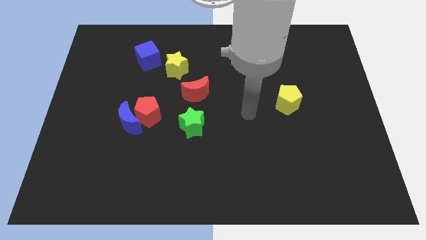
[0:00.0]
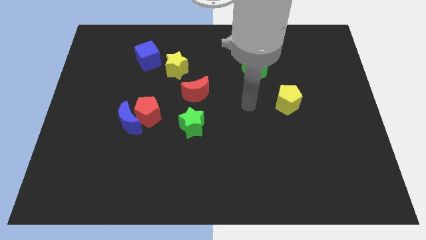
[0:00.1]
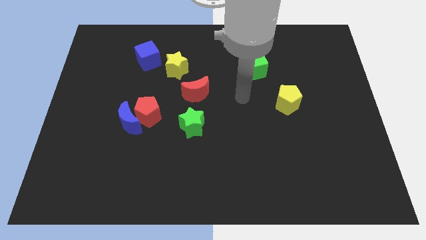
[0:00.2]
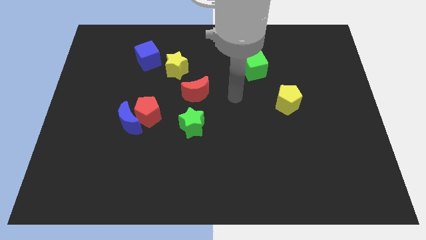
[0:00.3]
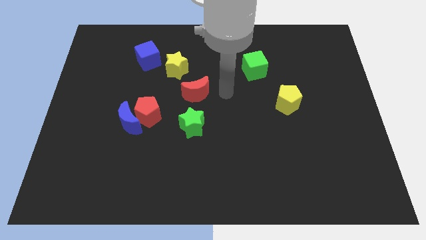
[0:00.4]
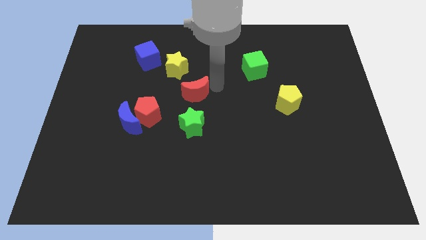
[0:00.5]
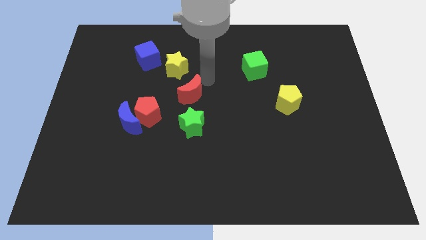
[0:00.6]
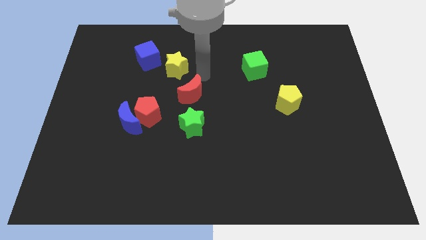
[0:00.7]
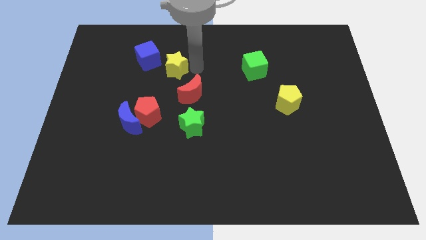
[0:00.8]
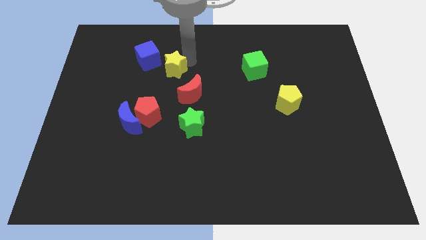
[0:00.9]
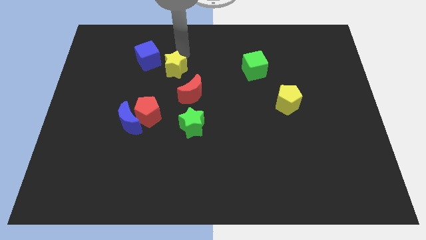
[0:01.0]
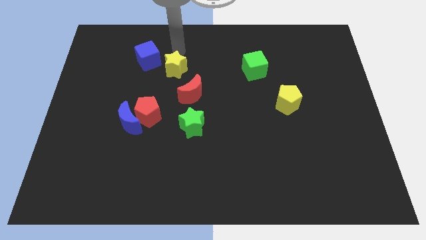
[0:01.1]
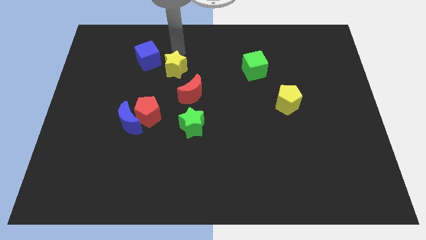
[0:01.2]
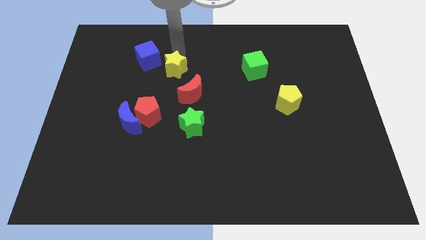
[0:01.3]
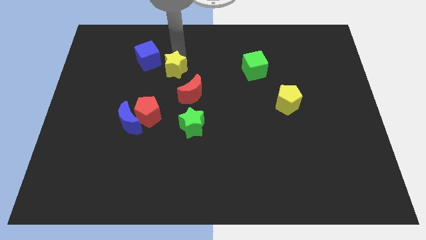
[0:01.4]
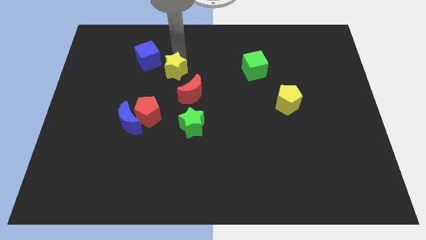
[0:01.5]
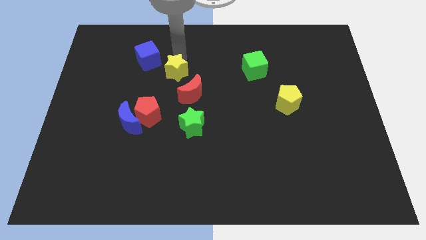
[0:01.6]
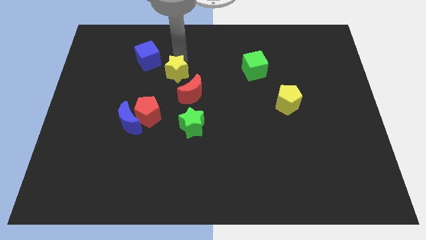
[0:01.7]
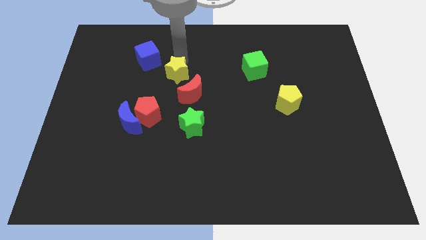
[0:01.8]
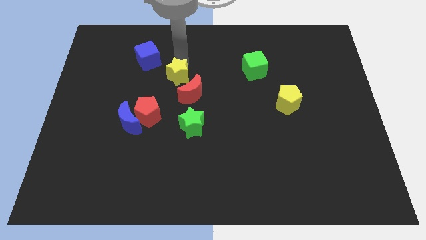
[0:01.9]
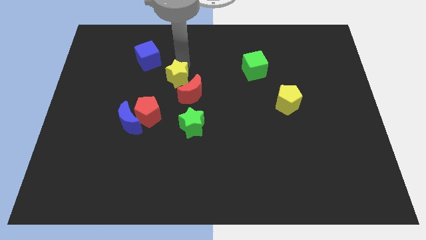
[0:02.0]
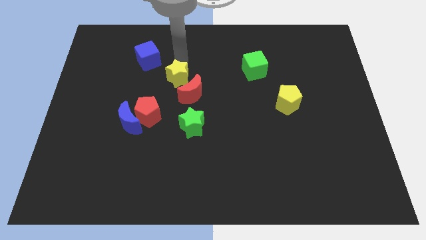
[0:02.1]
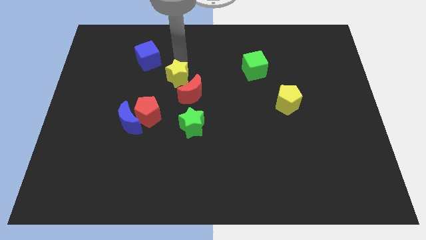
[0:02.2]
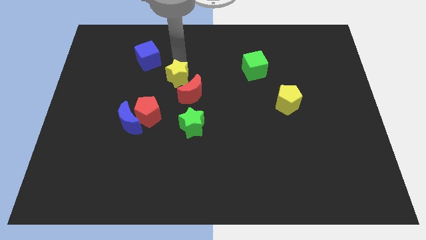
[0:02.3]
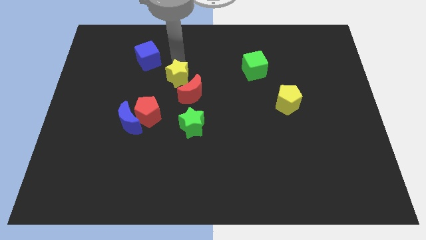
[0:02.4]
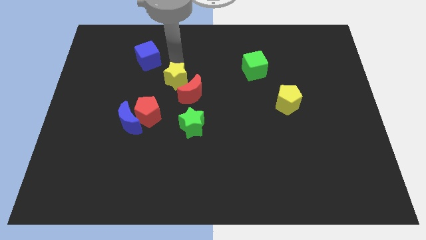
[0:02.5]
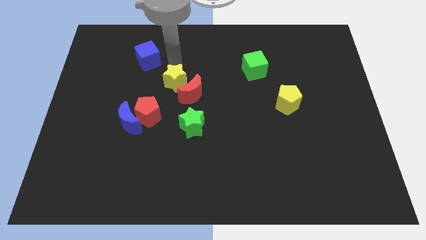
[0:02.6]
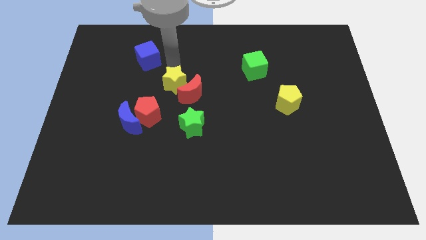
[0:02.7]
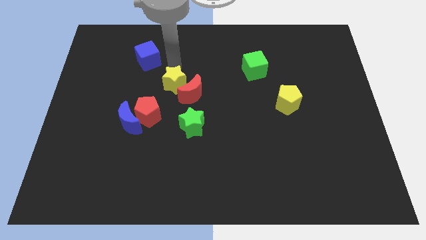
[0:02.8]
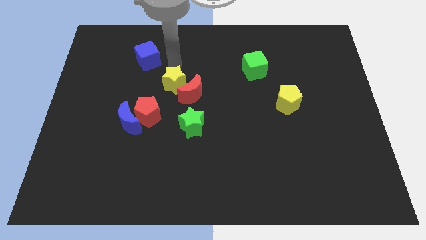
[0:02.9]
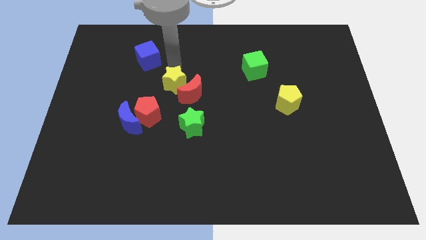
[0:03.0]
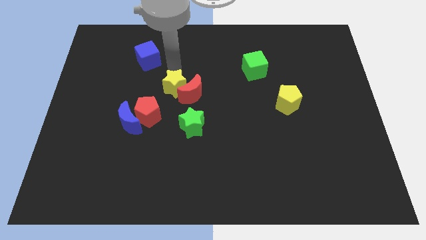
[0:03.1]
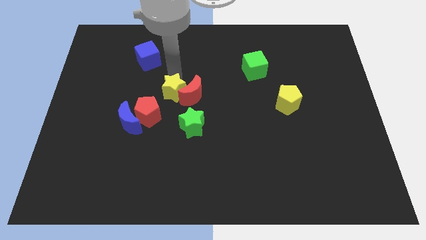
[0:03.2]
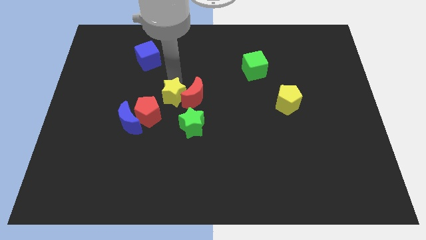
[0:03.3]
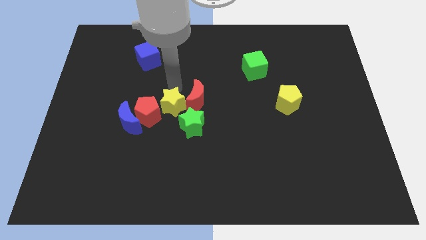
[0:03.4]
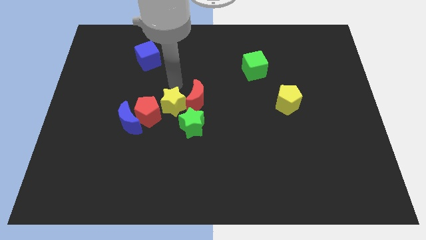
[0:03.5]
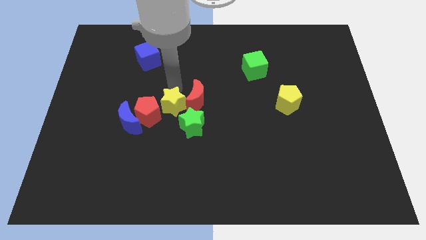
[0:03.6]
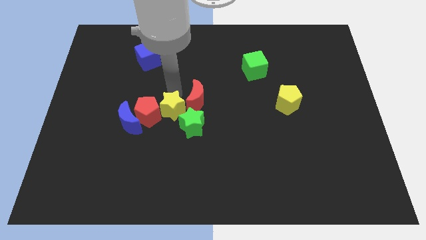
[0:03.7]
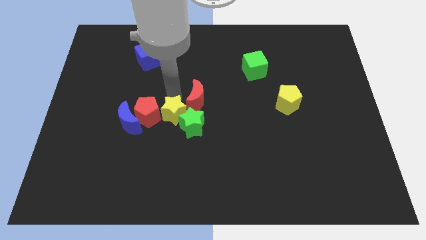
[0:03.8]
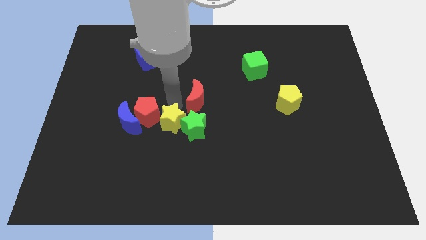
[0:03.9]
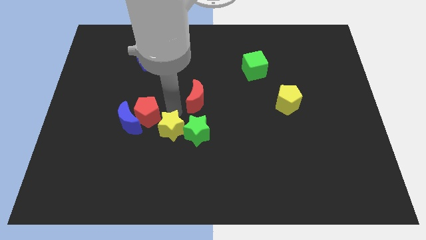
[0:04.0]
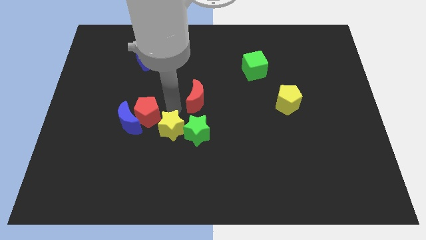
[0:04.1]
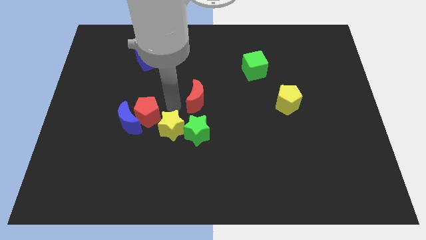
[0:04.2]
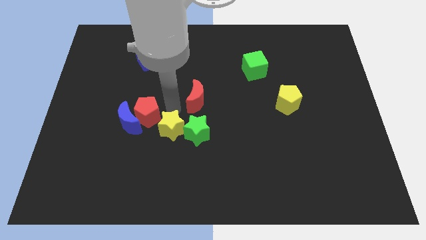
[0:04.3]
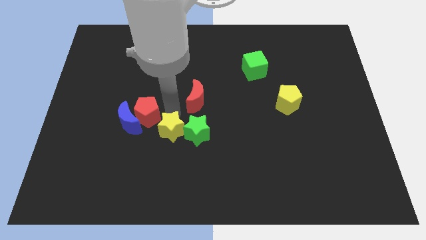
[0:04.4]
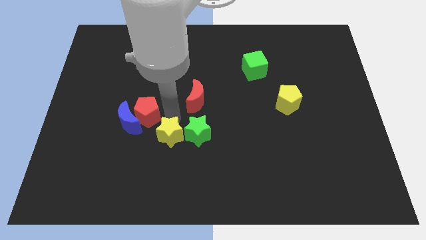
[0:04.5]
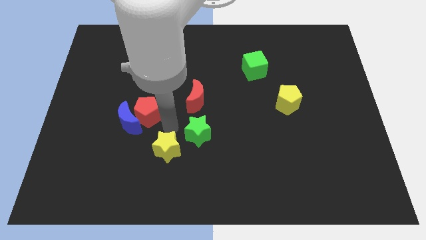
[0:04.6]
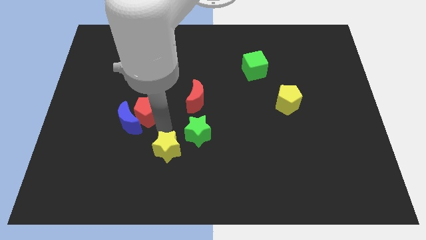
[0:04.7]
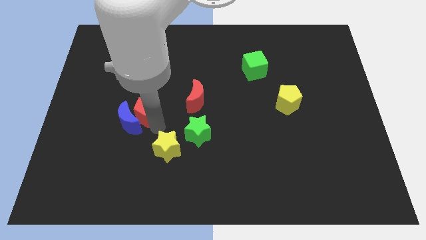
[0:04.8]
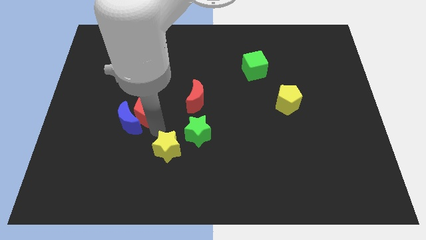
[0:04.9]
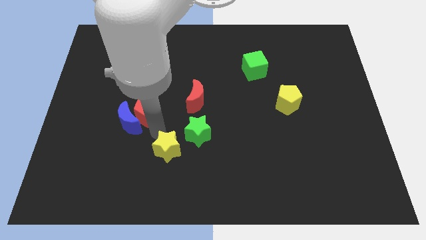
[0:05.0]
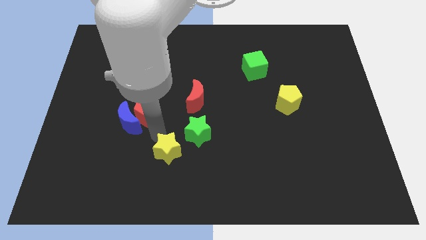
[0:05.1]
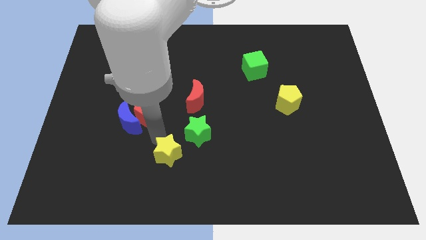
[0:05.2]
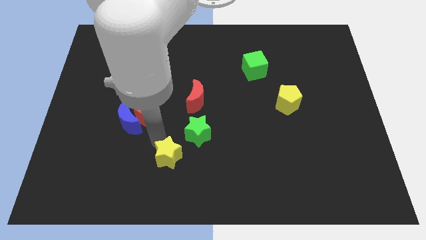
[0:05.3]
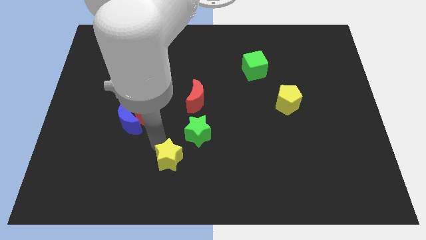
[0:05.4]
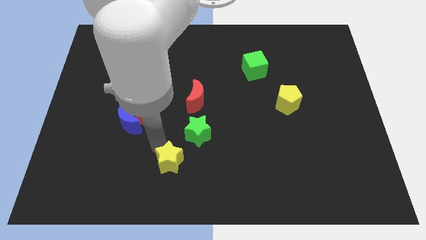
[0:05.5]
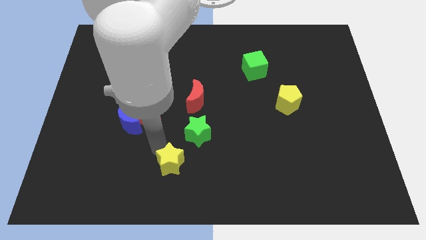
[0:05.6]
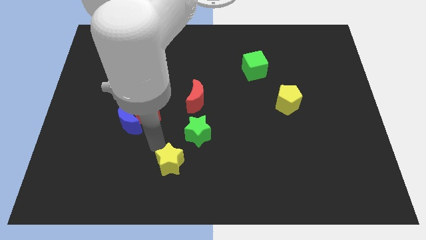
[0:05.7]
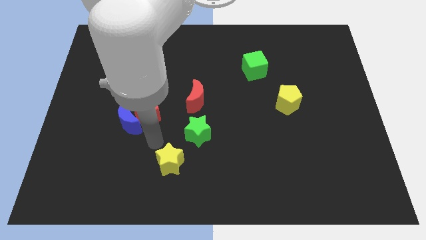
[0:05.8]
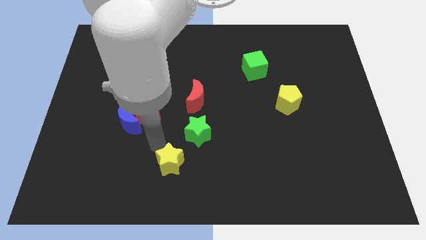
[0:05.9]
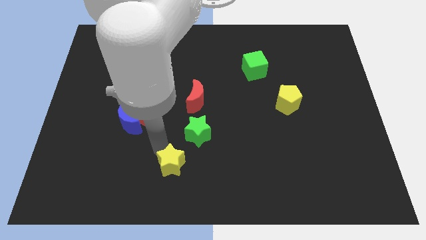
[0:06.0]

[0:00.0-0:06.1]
put the yellow star to the bottom

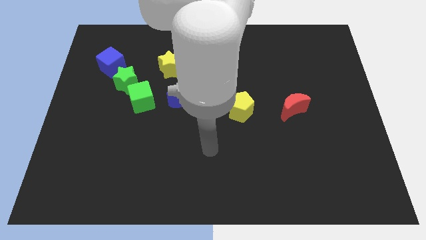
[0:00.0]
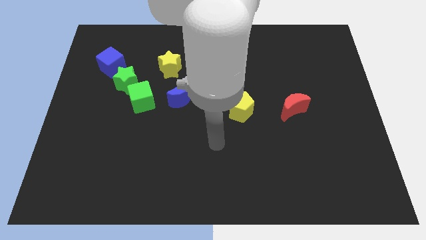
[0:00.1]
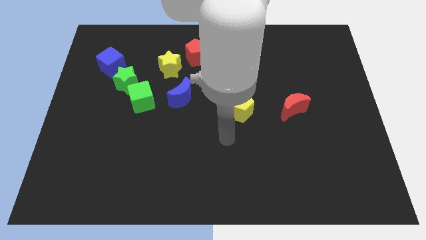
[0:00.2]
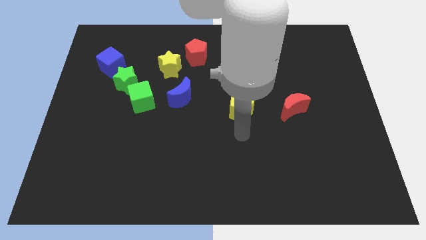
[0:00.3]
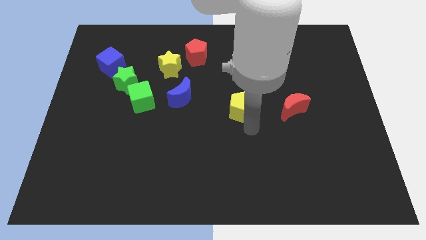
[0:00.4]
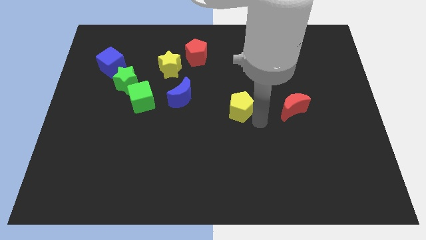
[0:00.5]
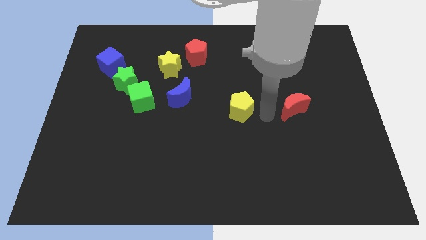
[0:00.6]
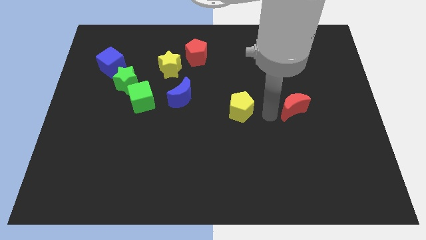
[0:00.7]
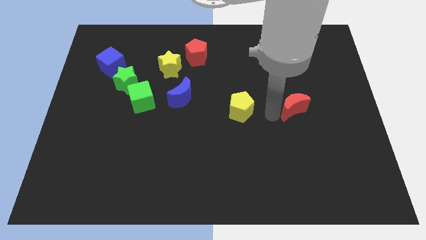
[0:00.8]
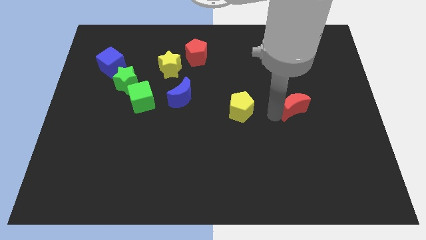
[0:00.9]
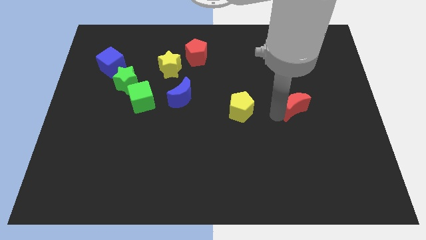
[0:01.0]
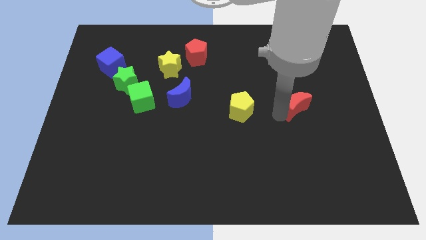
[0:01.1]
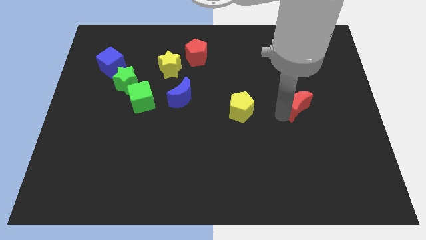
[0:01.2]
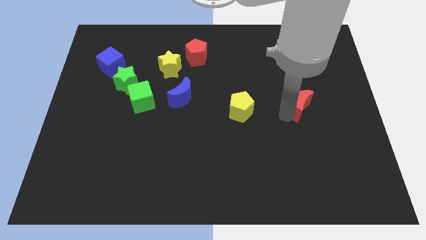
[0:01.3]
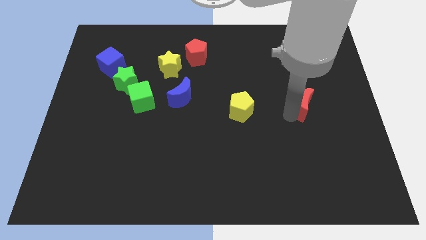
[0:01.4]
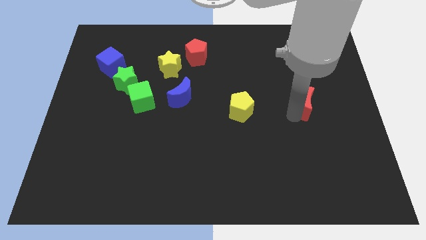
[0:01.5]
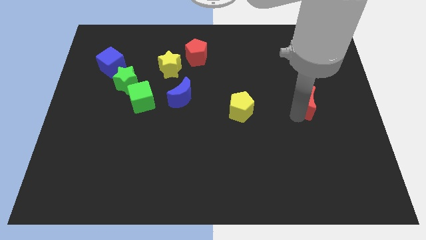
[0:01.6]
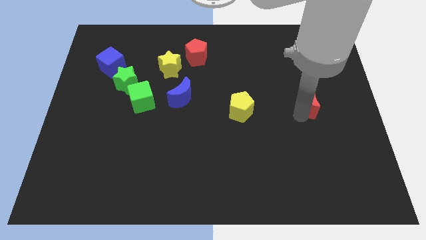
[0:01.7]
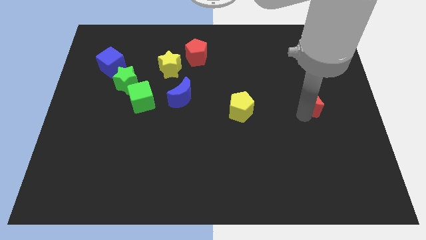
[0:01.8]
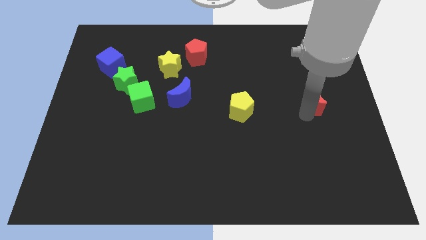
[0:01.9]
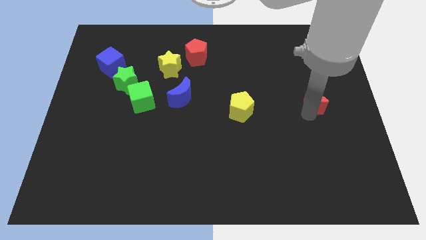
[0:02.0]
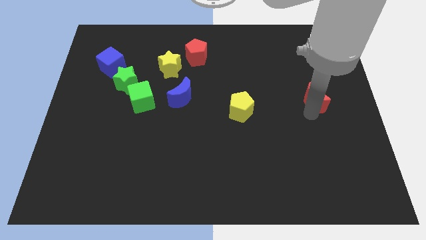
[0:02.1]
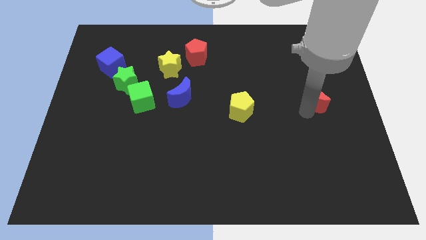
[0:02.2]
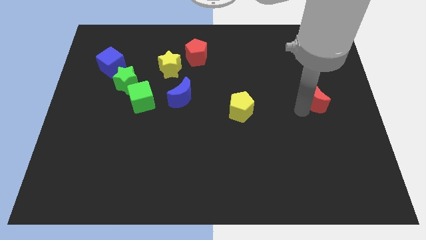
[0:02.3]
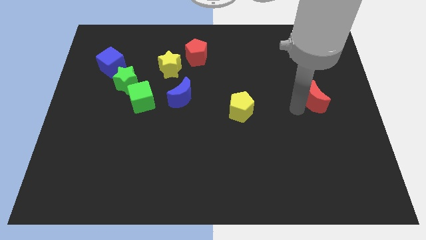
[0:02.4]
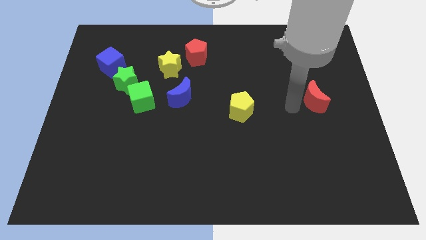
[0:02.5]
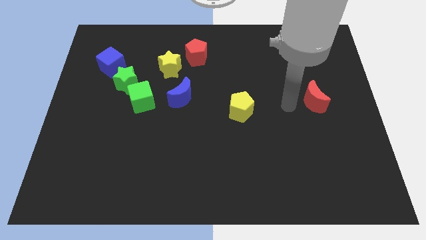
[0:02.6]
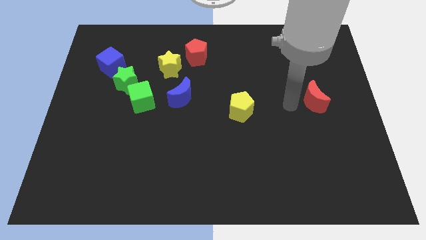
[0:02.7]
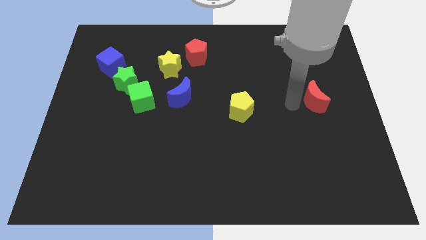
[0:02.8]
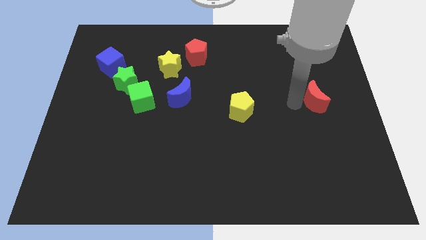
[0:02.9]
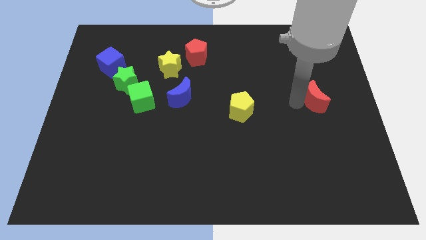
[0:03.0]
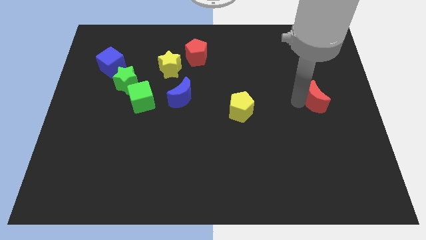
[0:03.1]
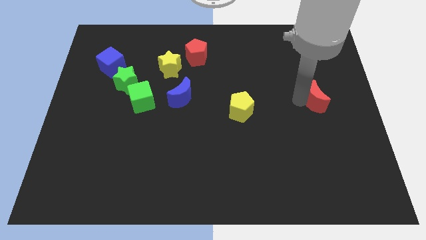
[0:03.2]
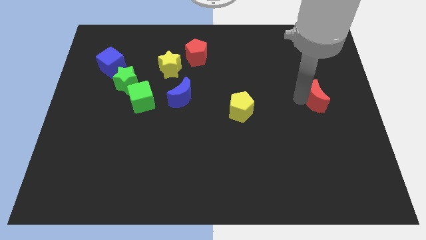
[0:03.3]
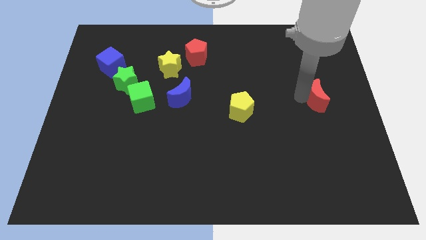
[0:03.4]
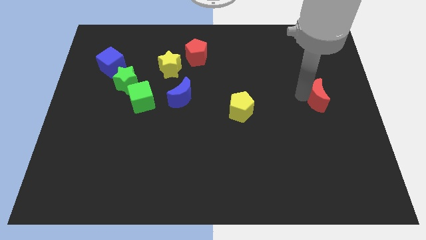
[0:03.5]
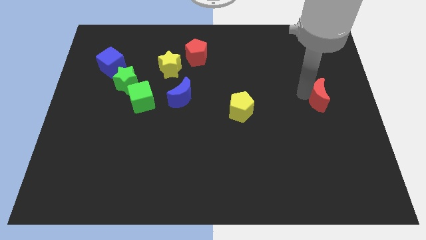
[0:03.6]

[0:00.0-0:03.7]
push the red moon to the right side
